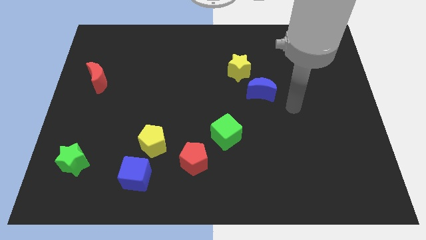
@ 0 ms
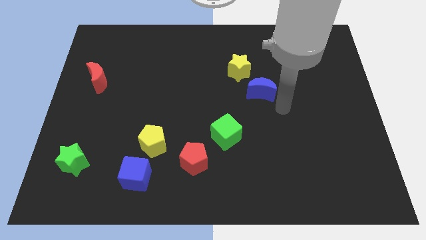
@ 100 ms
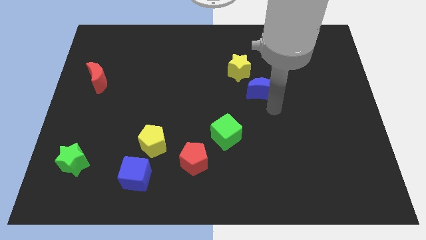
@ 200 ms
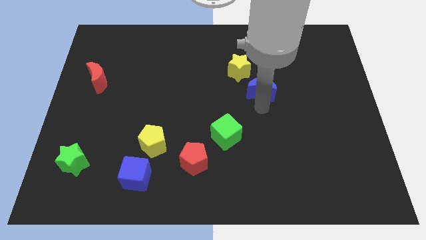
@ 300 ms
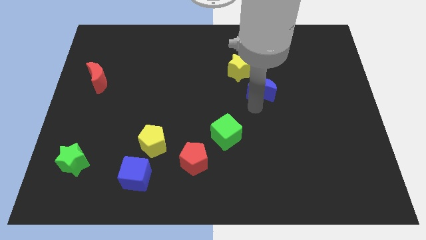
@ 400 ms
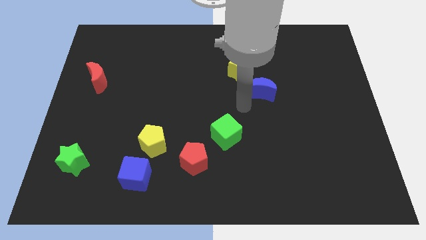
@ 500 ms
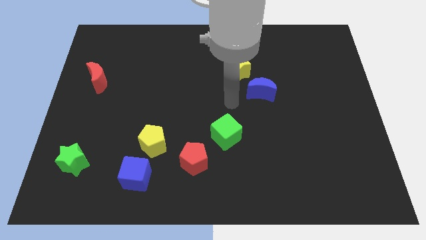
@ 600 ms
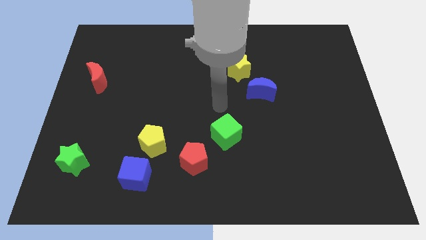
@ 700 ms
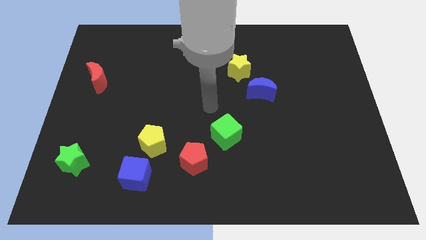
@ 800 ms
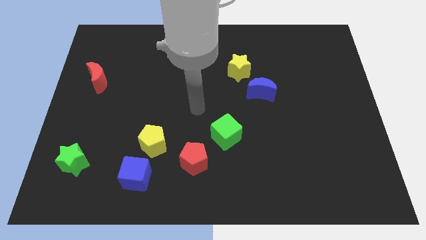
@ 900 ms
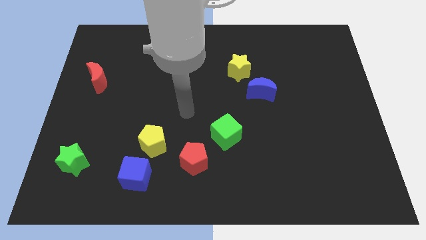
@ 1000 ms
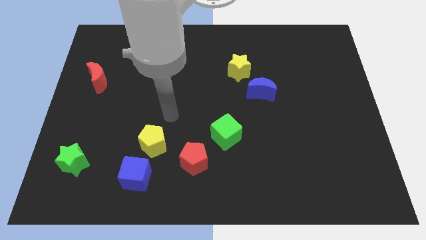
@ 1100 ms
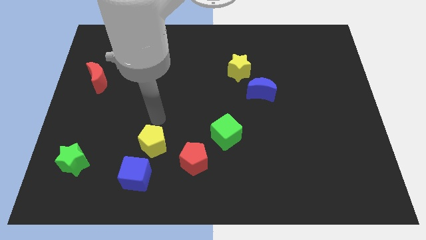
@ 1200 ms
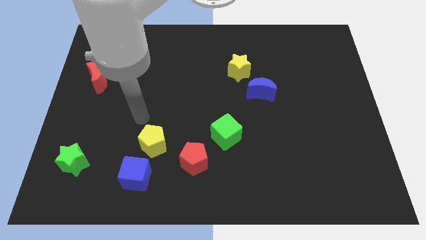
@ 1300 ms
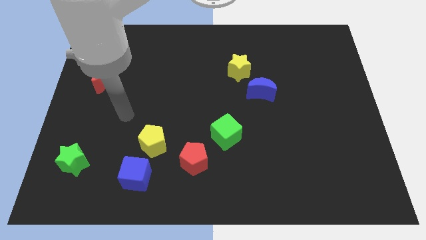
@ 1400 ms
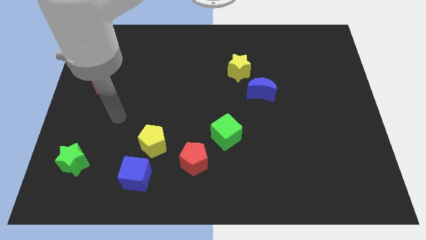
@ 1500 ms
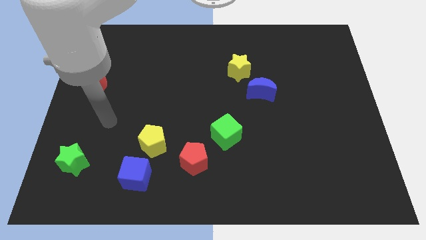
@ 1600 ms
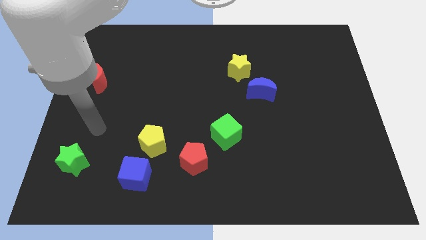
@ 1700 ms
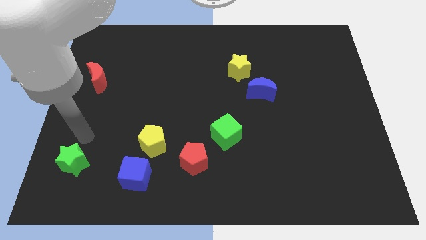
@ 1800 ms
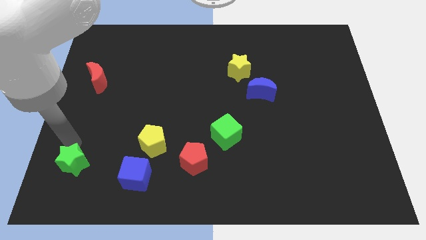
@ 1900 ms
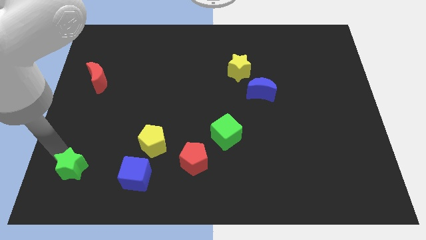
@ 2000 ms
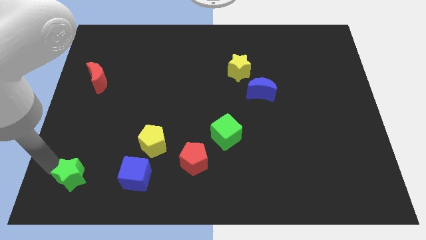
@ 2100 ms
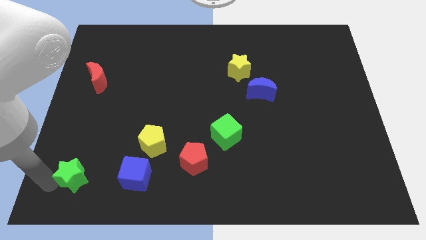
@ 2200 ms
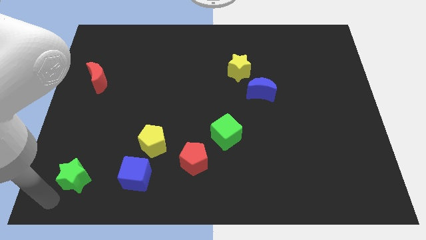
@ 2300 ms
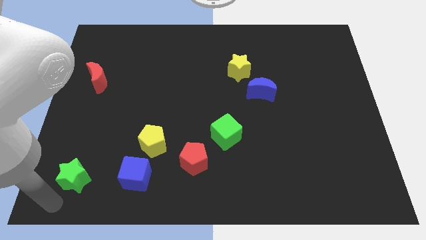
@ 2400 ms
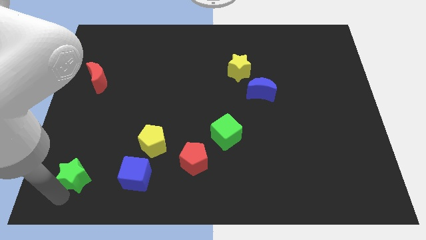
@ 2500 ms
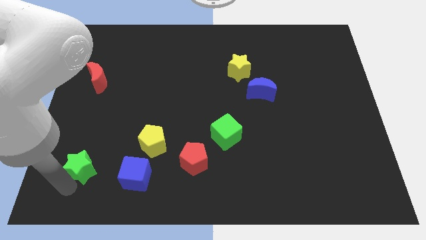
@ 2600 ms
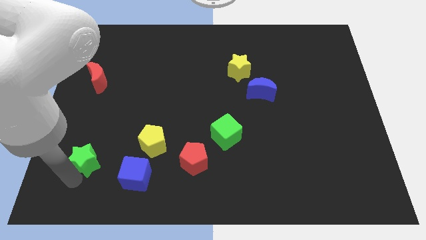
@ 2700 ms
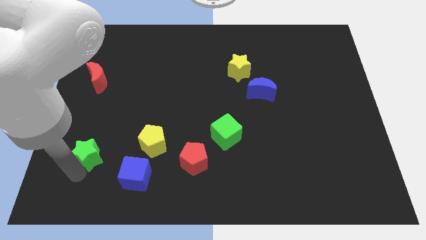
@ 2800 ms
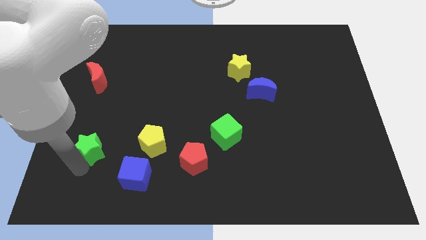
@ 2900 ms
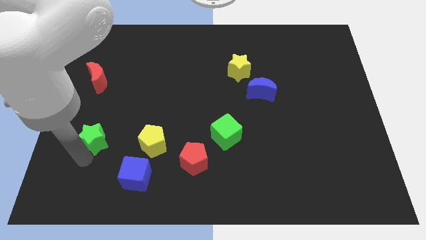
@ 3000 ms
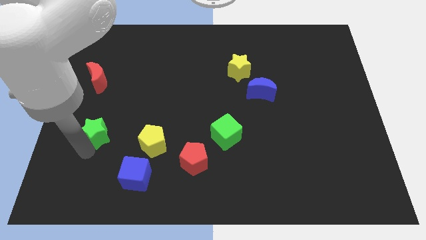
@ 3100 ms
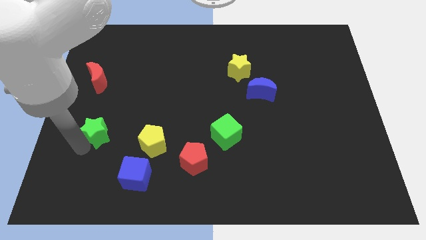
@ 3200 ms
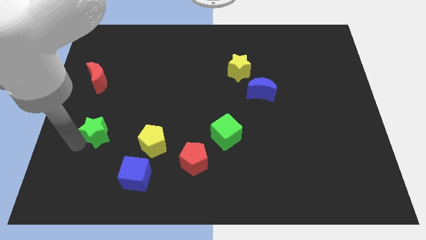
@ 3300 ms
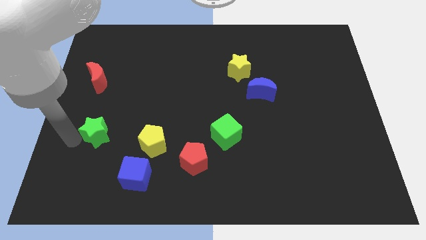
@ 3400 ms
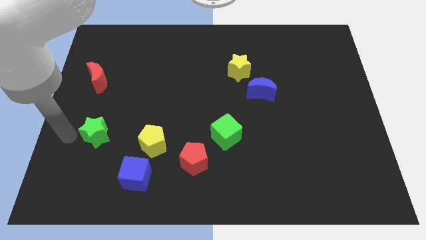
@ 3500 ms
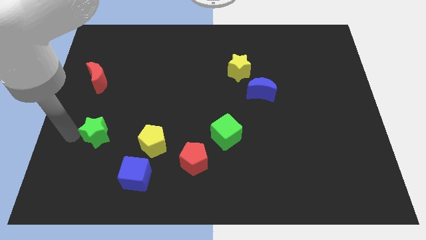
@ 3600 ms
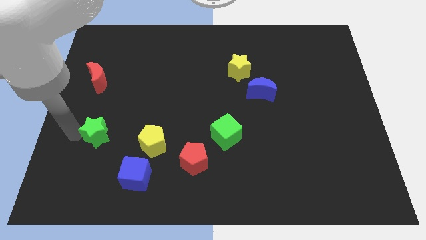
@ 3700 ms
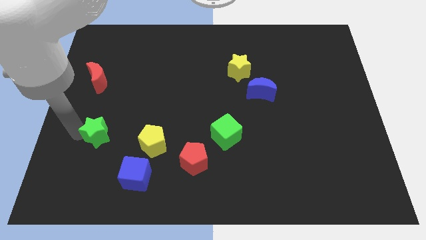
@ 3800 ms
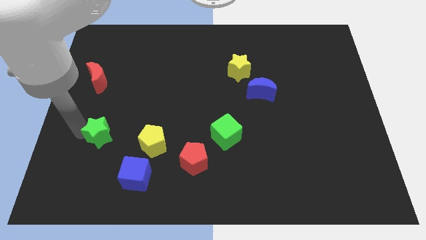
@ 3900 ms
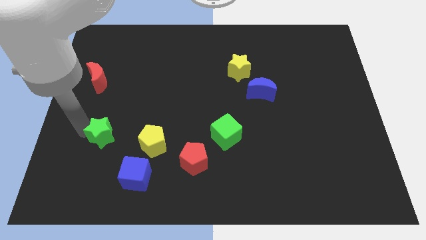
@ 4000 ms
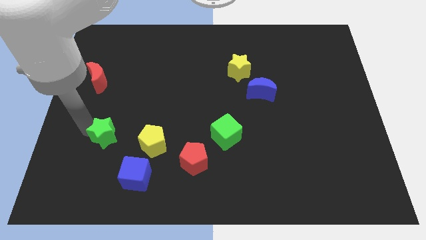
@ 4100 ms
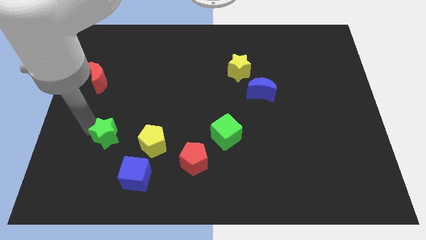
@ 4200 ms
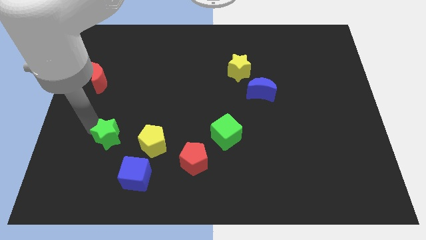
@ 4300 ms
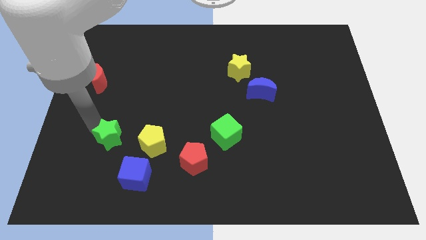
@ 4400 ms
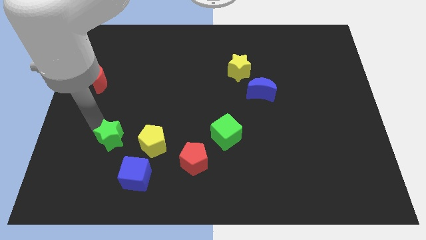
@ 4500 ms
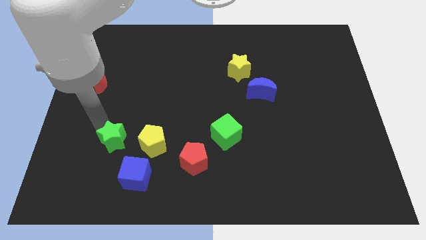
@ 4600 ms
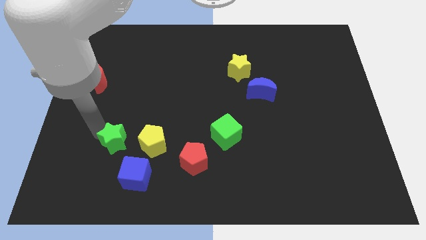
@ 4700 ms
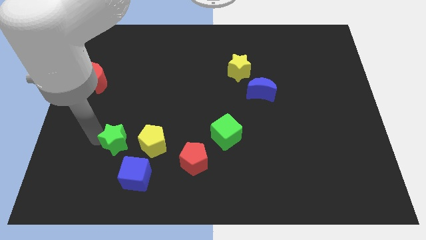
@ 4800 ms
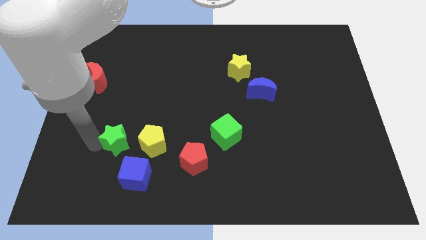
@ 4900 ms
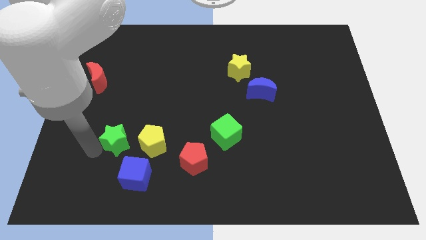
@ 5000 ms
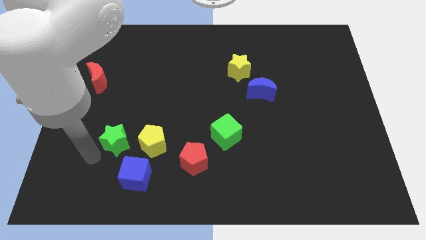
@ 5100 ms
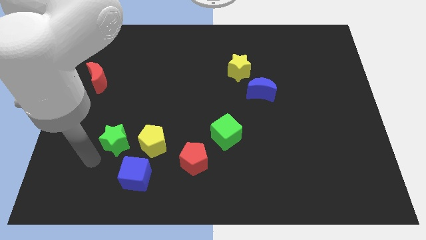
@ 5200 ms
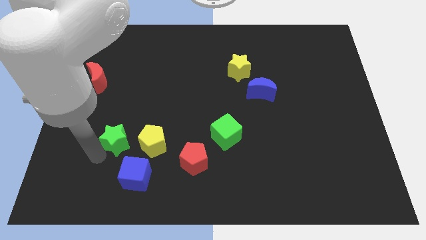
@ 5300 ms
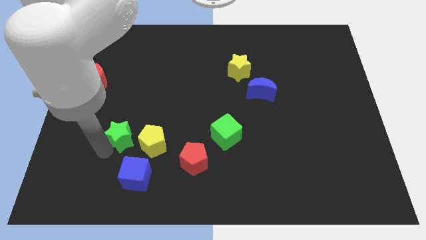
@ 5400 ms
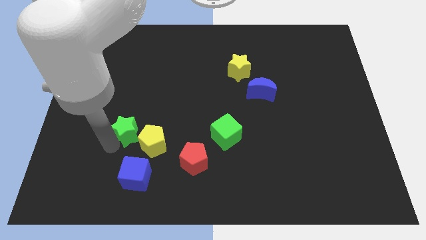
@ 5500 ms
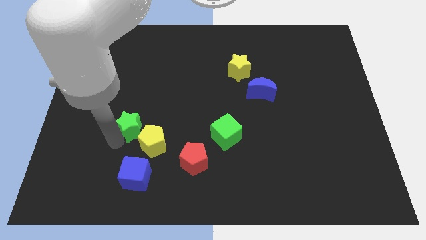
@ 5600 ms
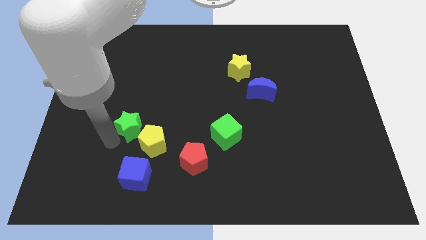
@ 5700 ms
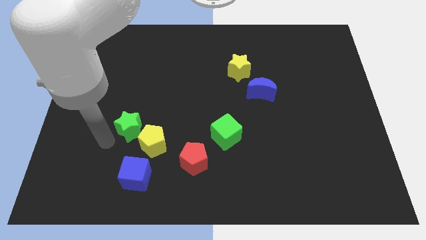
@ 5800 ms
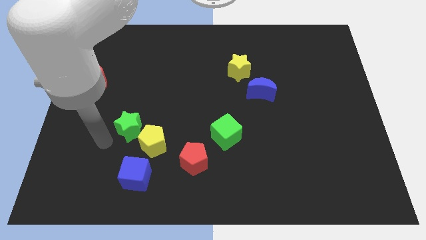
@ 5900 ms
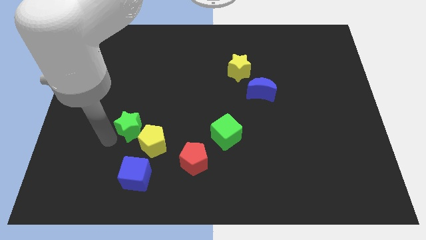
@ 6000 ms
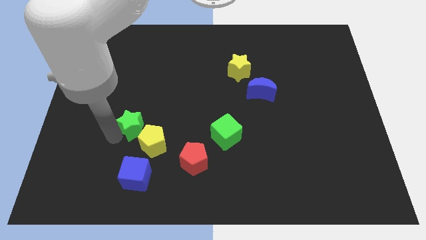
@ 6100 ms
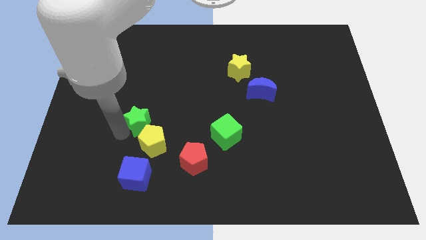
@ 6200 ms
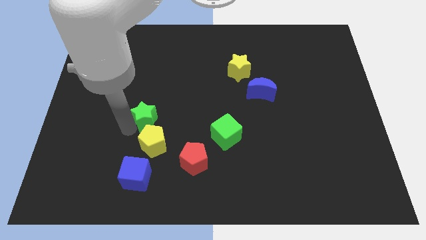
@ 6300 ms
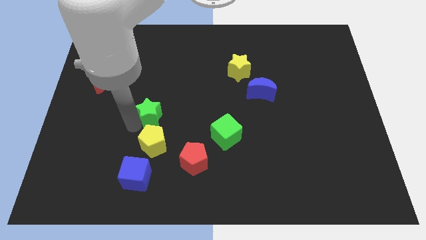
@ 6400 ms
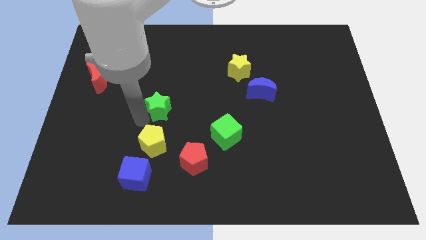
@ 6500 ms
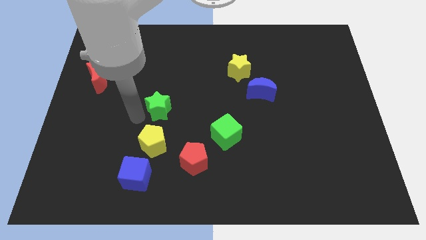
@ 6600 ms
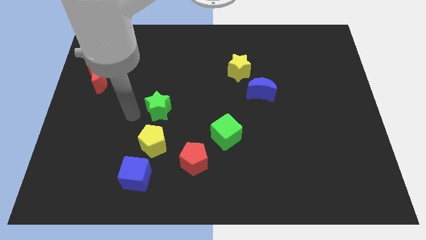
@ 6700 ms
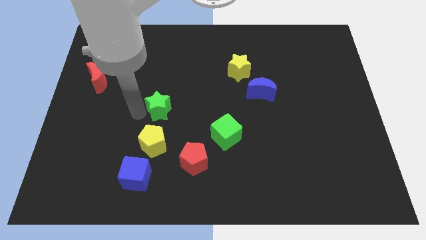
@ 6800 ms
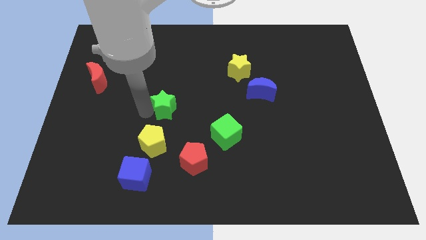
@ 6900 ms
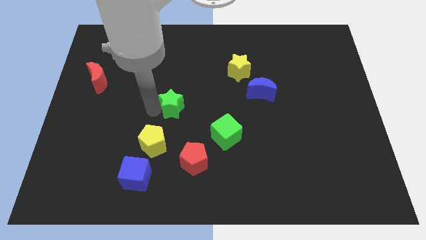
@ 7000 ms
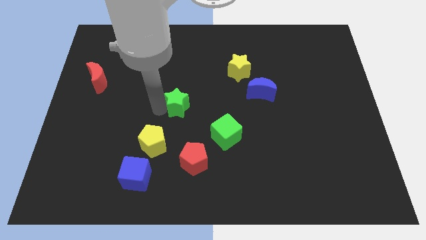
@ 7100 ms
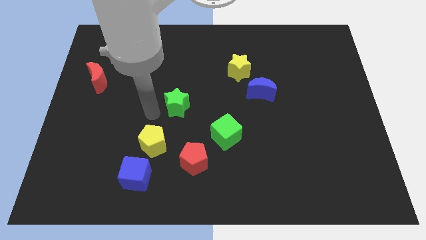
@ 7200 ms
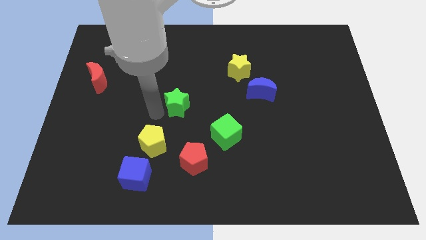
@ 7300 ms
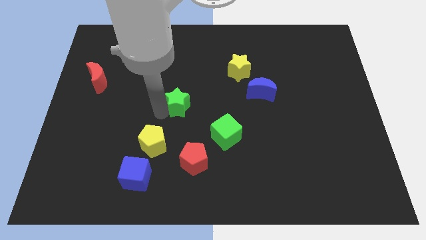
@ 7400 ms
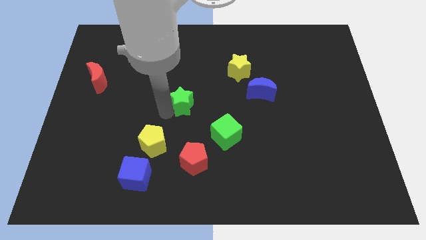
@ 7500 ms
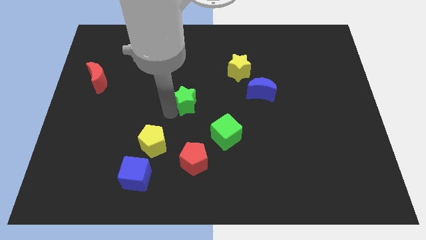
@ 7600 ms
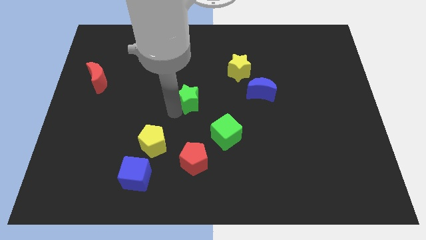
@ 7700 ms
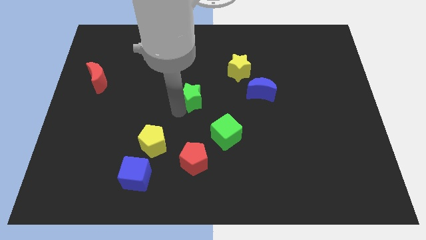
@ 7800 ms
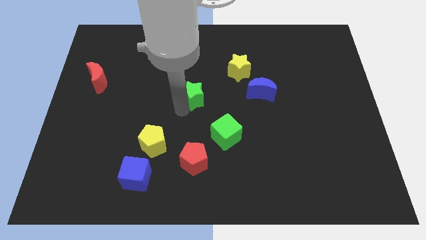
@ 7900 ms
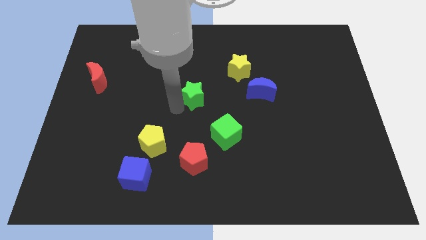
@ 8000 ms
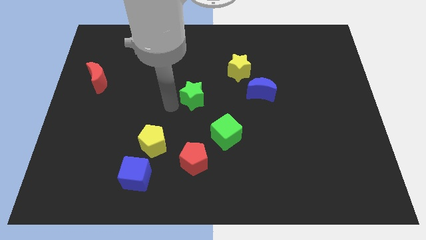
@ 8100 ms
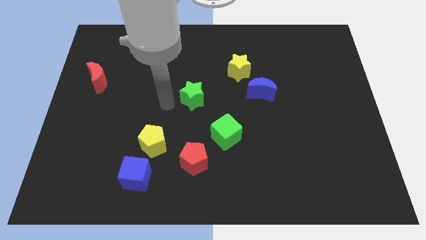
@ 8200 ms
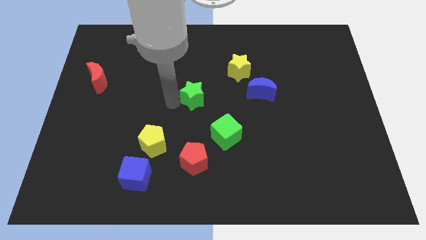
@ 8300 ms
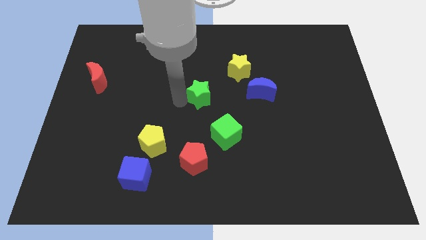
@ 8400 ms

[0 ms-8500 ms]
move the green star left of the blue moon
